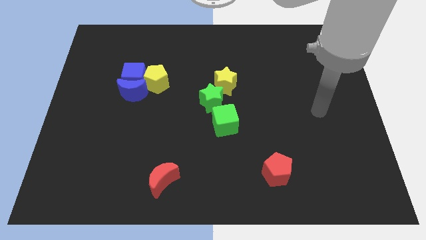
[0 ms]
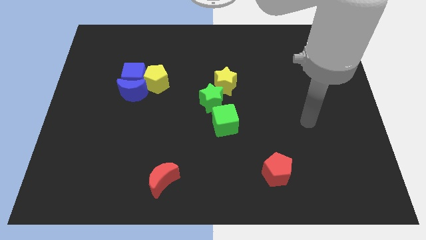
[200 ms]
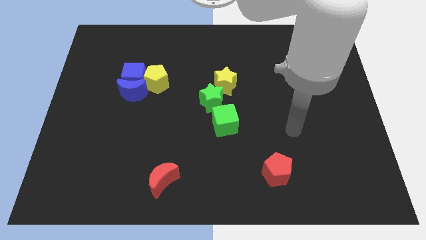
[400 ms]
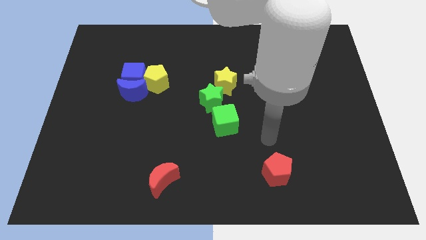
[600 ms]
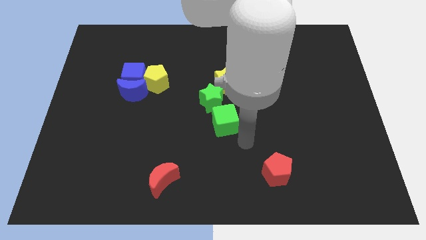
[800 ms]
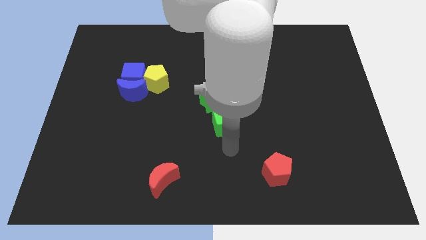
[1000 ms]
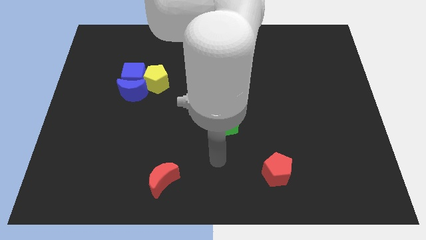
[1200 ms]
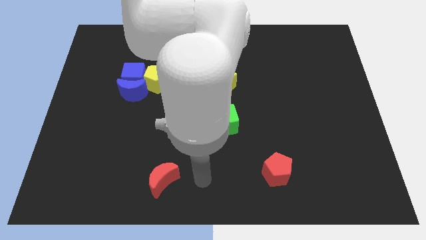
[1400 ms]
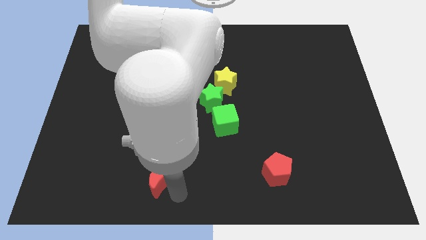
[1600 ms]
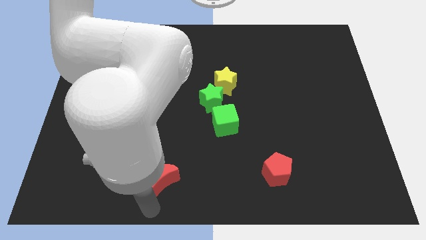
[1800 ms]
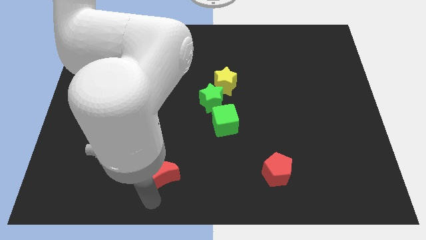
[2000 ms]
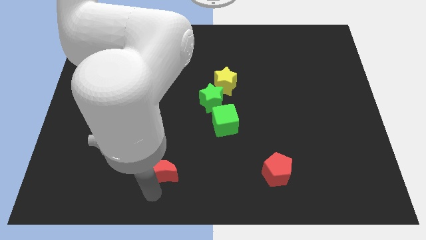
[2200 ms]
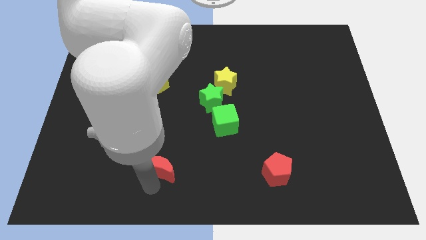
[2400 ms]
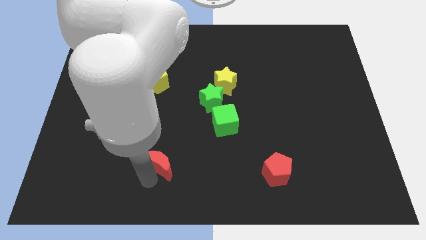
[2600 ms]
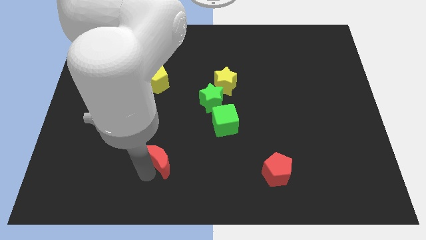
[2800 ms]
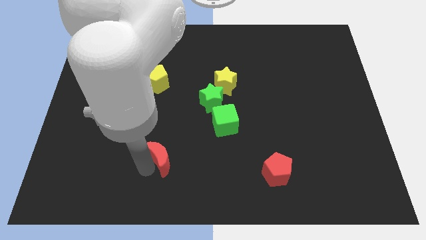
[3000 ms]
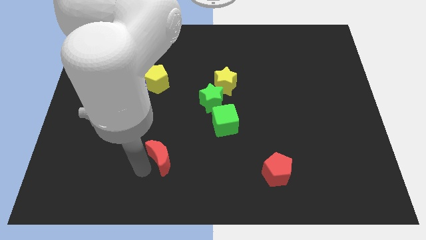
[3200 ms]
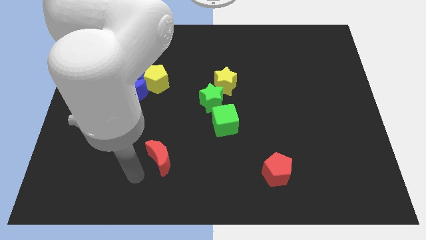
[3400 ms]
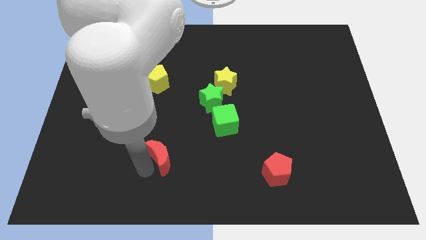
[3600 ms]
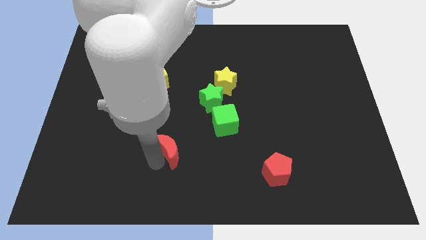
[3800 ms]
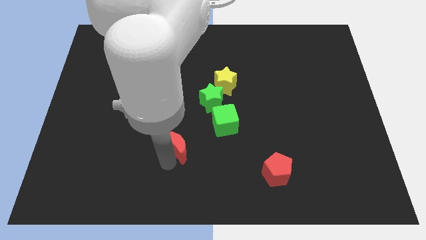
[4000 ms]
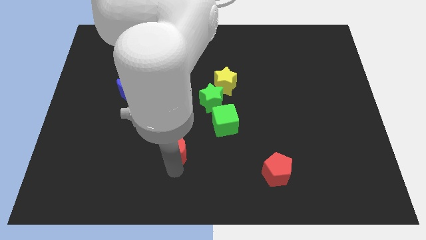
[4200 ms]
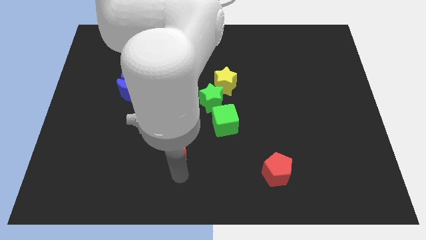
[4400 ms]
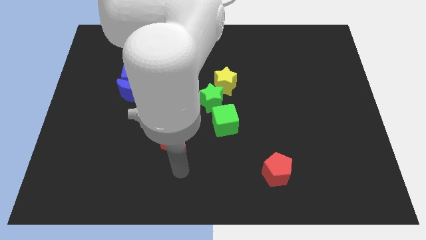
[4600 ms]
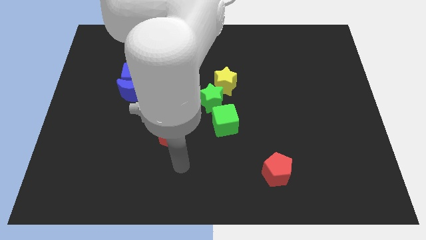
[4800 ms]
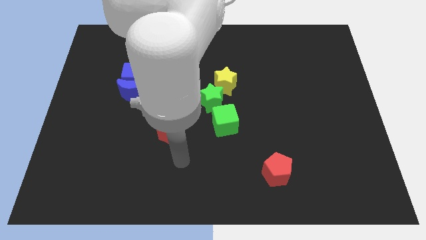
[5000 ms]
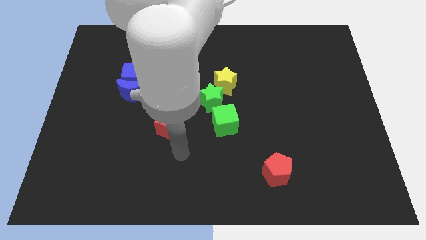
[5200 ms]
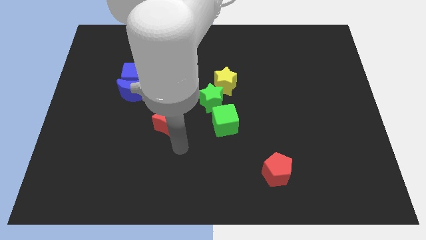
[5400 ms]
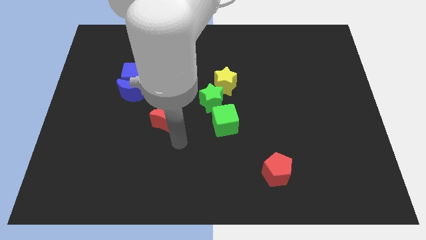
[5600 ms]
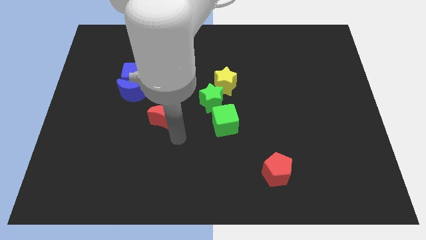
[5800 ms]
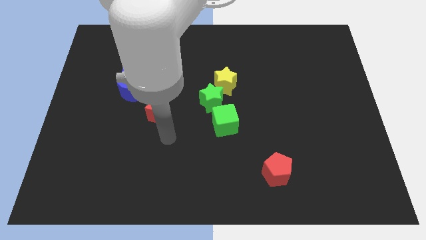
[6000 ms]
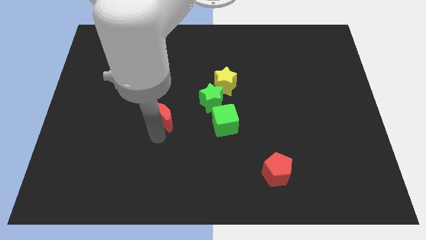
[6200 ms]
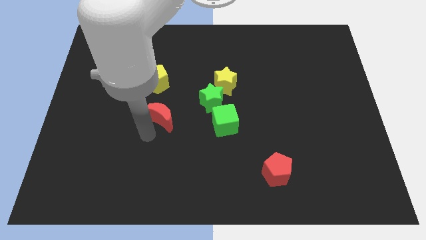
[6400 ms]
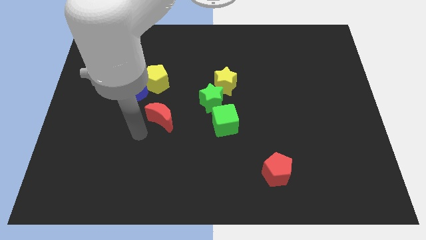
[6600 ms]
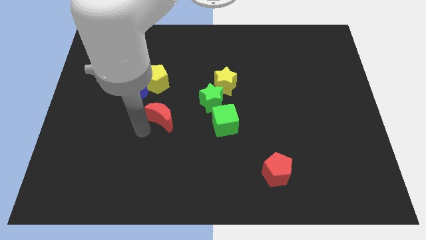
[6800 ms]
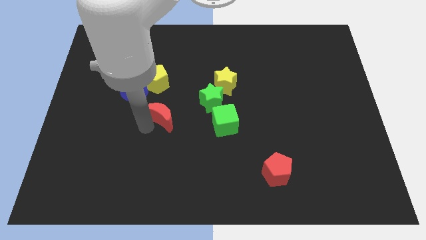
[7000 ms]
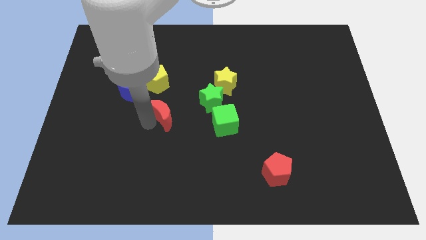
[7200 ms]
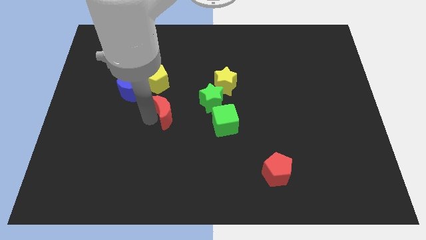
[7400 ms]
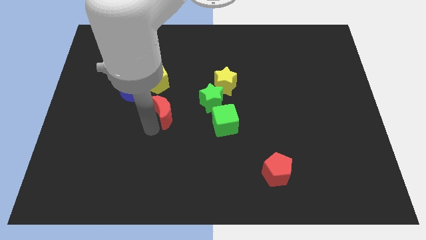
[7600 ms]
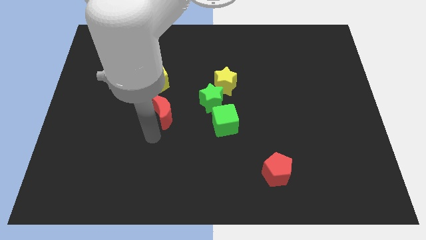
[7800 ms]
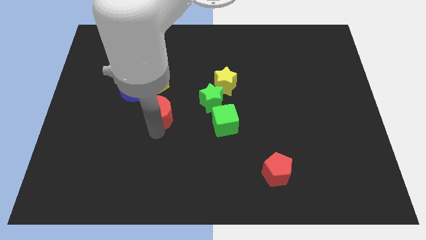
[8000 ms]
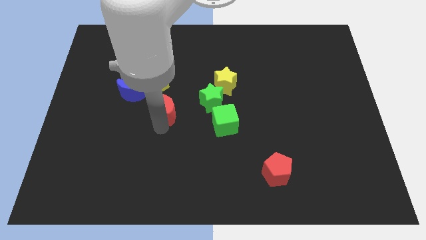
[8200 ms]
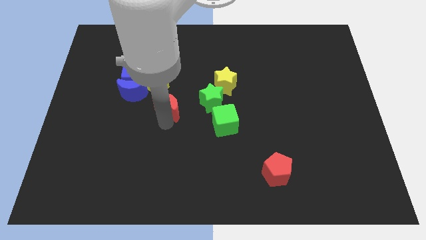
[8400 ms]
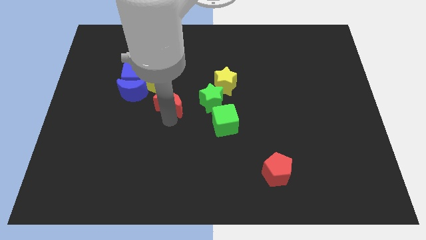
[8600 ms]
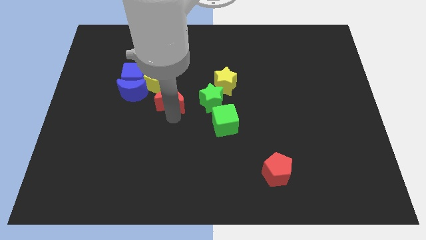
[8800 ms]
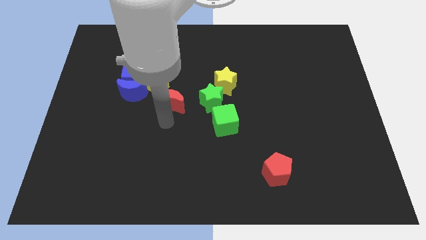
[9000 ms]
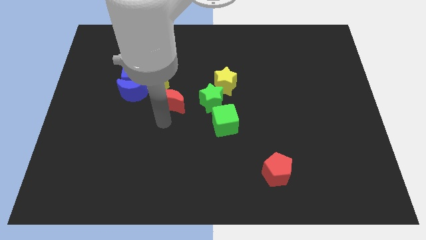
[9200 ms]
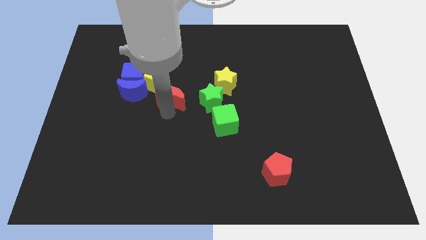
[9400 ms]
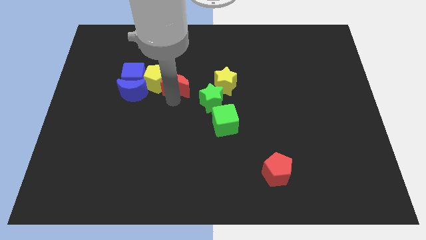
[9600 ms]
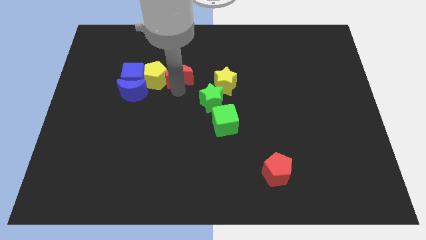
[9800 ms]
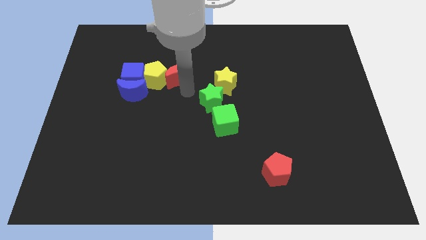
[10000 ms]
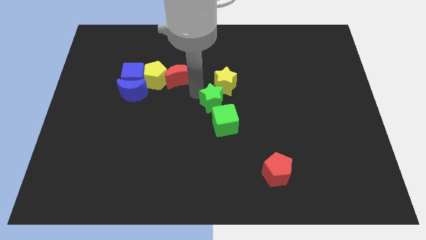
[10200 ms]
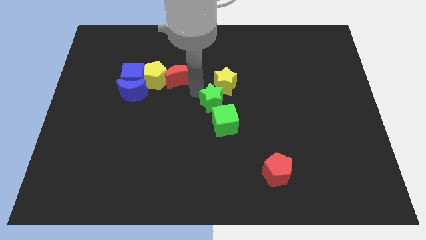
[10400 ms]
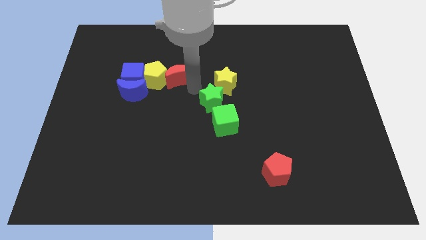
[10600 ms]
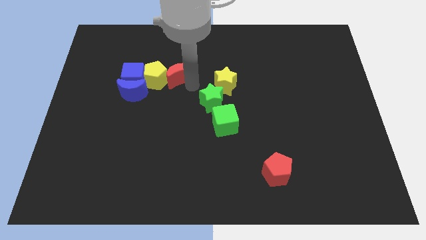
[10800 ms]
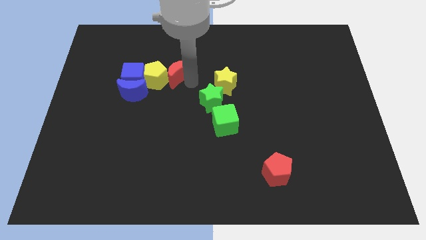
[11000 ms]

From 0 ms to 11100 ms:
move the red moon to the top right side of the blue moon

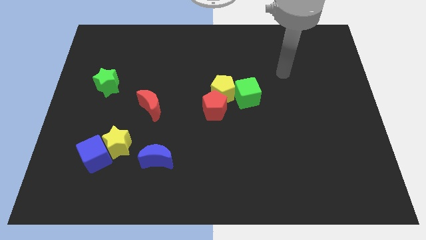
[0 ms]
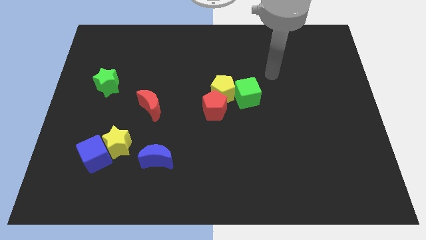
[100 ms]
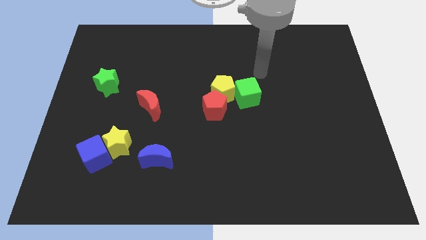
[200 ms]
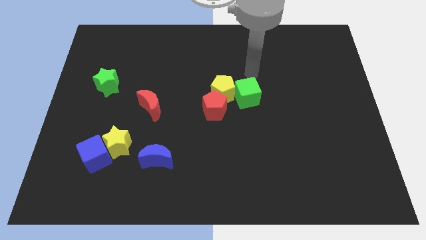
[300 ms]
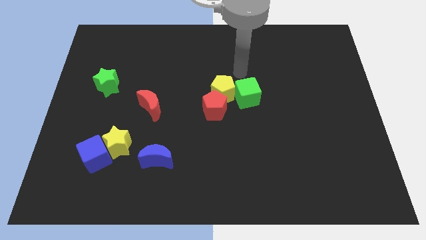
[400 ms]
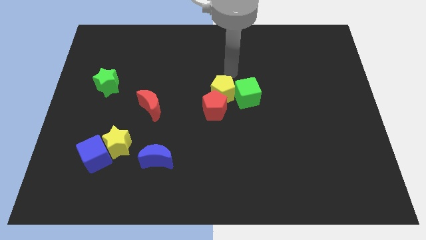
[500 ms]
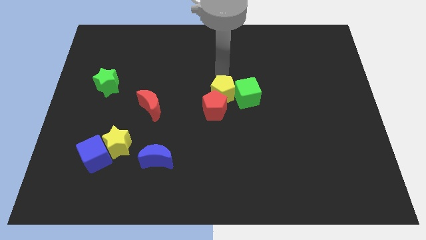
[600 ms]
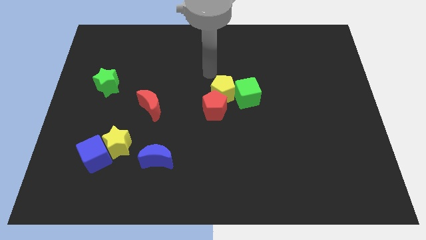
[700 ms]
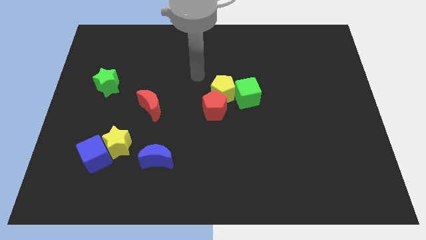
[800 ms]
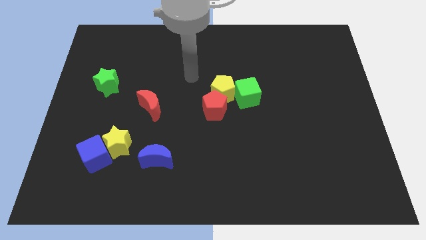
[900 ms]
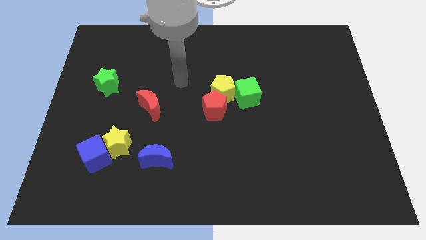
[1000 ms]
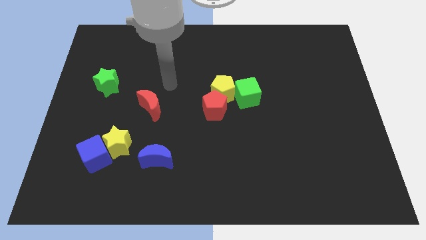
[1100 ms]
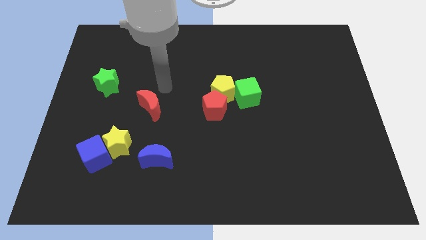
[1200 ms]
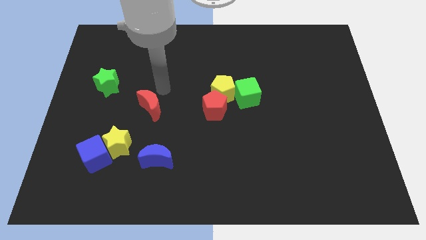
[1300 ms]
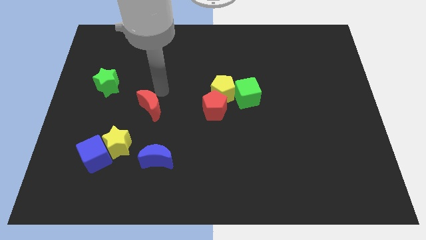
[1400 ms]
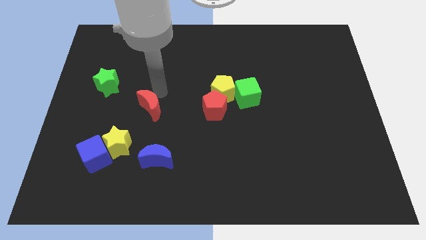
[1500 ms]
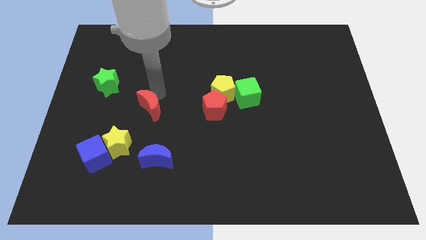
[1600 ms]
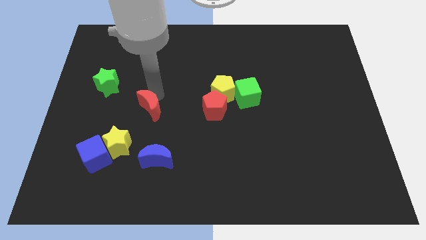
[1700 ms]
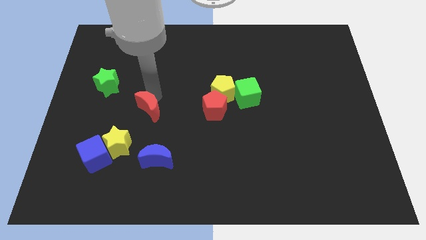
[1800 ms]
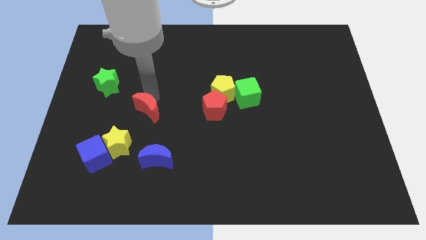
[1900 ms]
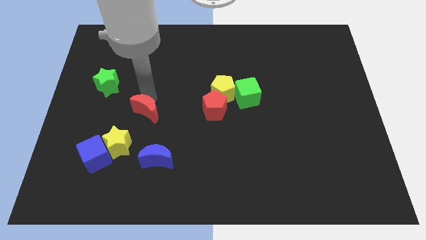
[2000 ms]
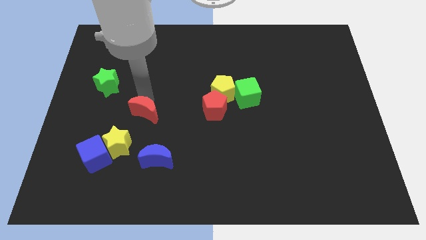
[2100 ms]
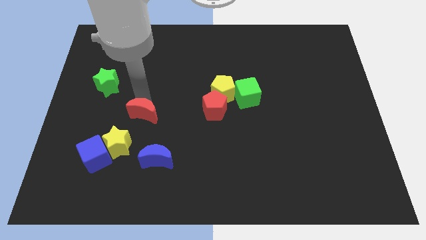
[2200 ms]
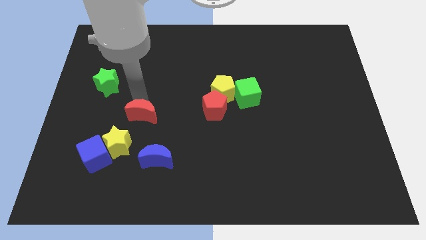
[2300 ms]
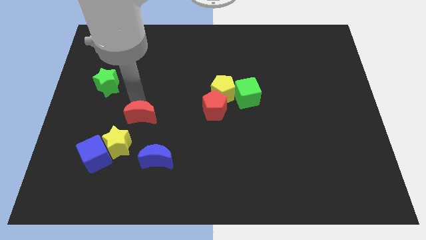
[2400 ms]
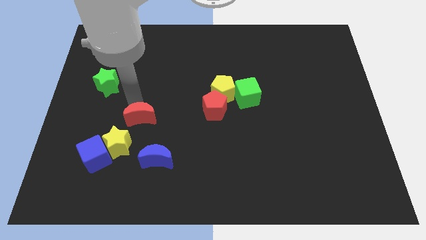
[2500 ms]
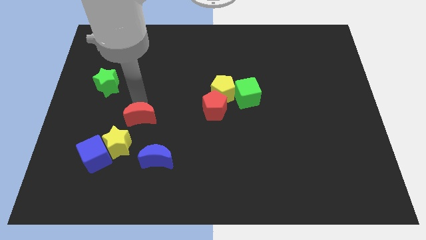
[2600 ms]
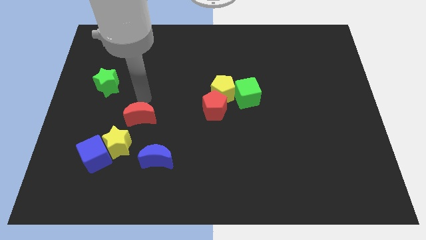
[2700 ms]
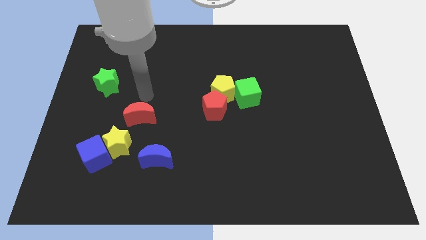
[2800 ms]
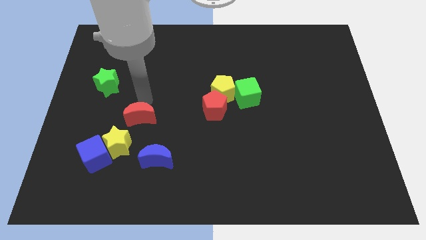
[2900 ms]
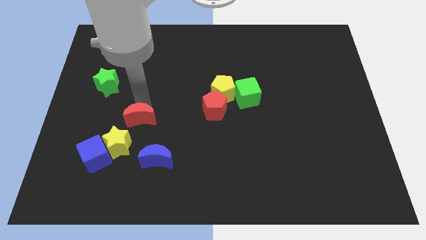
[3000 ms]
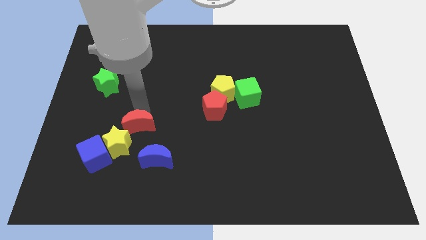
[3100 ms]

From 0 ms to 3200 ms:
push the red moon to the top left side of the blue moon
